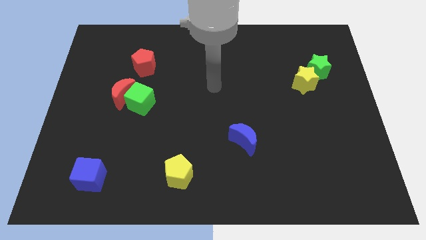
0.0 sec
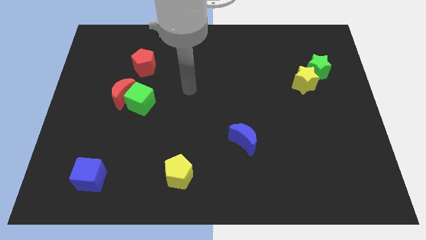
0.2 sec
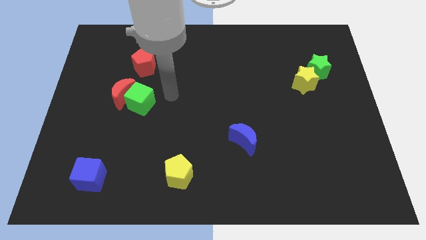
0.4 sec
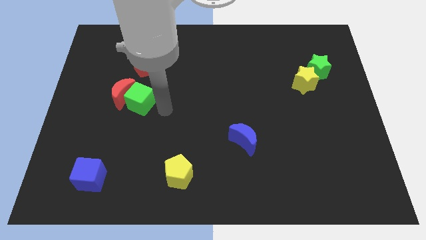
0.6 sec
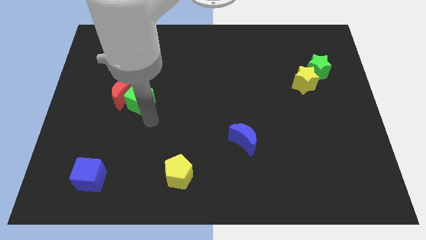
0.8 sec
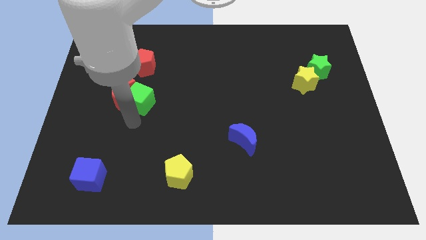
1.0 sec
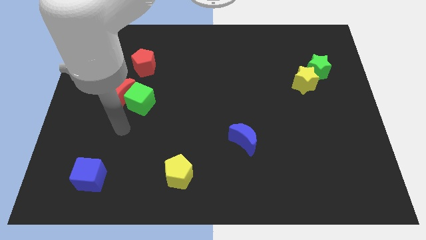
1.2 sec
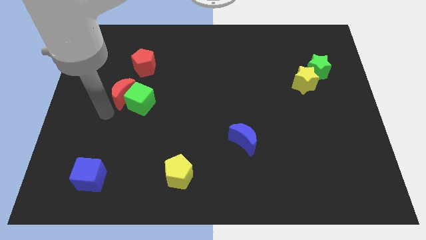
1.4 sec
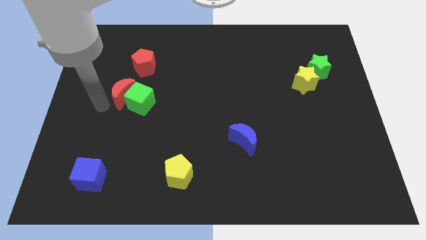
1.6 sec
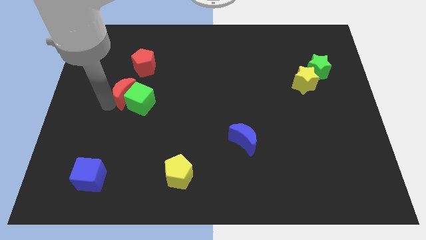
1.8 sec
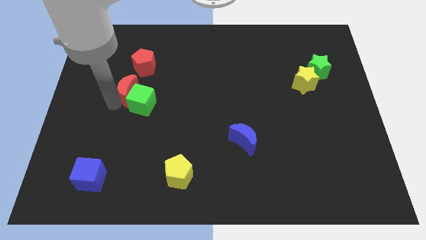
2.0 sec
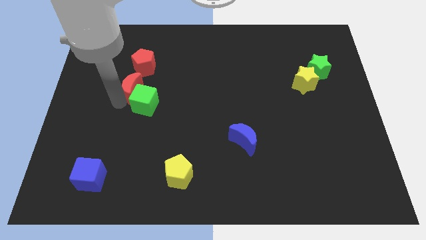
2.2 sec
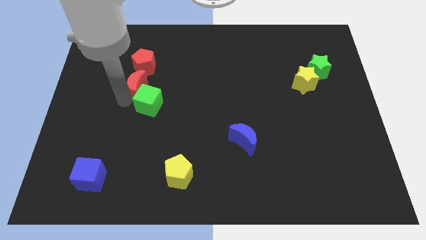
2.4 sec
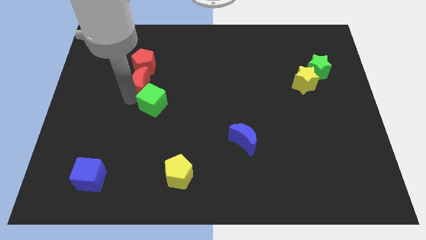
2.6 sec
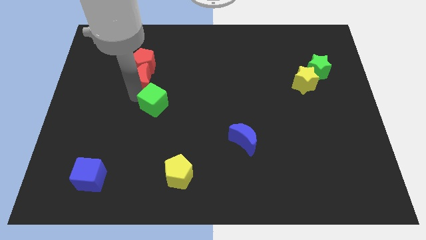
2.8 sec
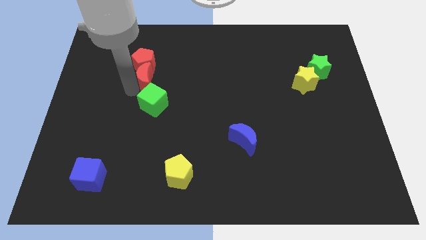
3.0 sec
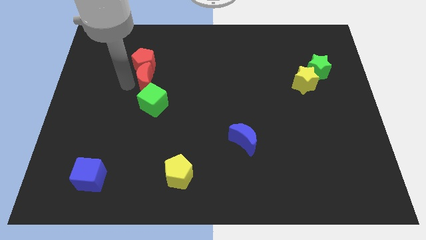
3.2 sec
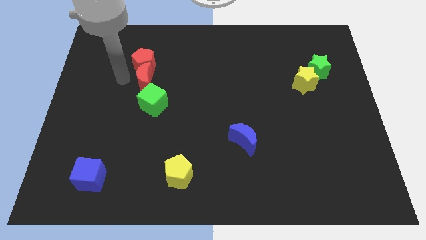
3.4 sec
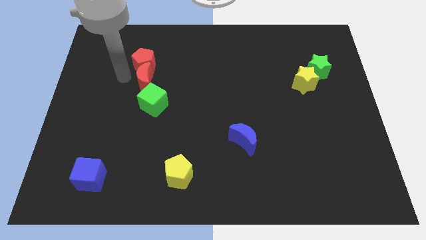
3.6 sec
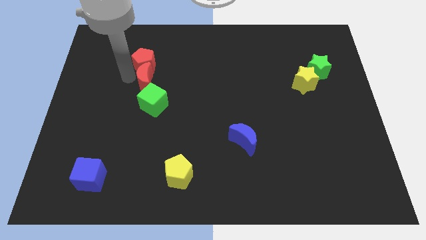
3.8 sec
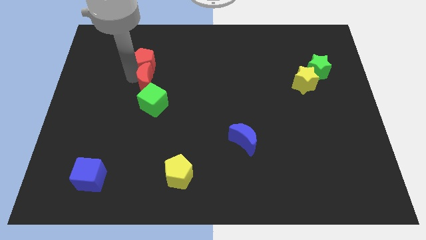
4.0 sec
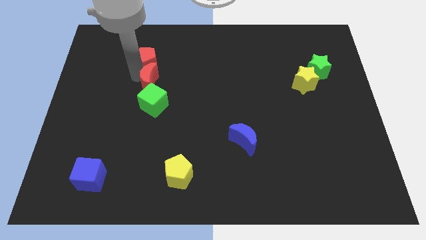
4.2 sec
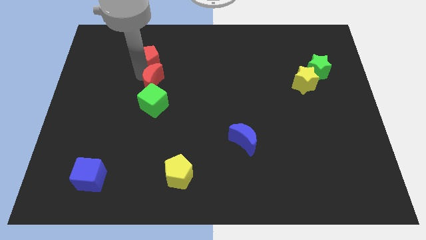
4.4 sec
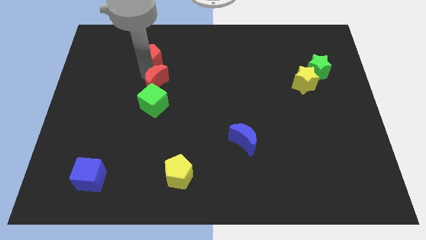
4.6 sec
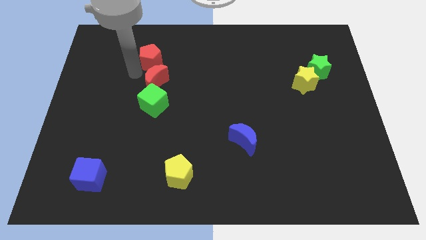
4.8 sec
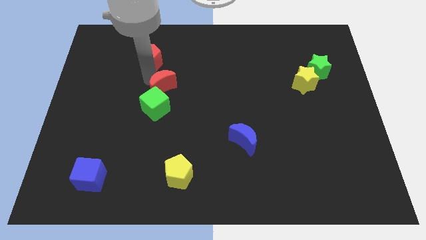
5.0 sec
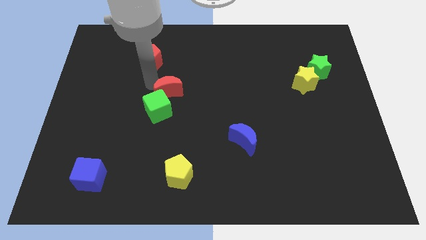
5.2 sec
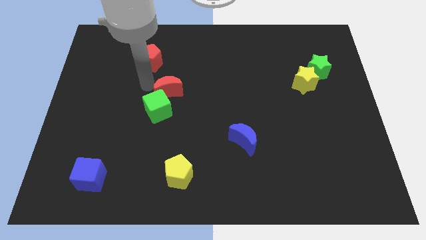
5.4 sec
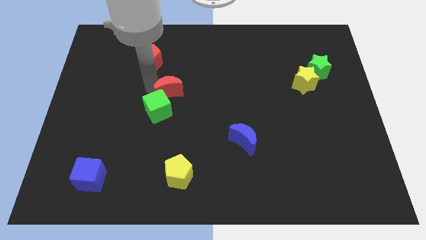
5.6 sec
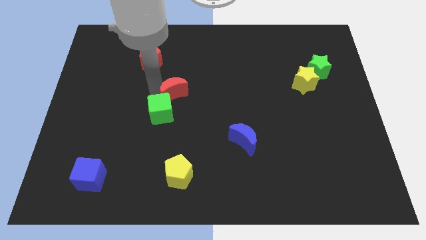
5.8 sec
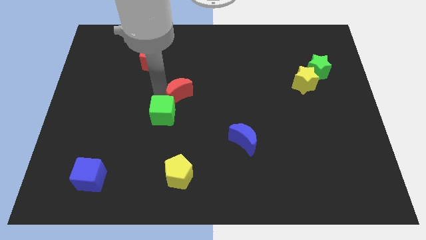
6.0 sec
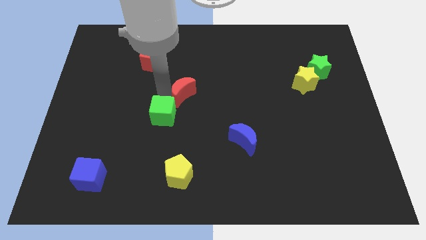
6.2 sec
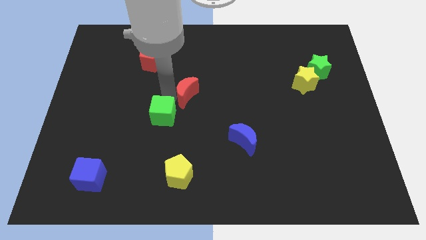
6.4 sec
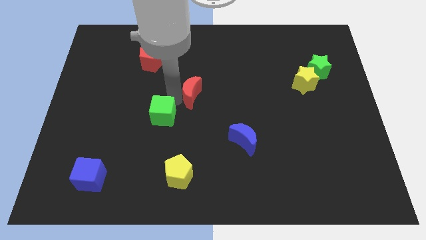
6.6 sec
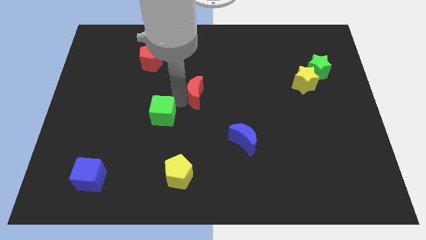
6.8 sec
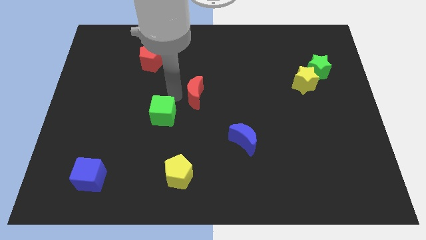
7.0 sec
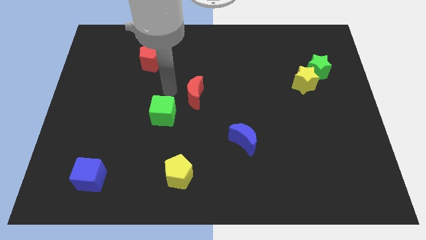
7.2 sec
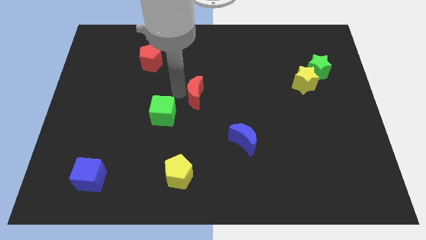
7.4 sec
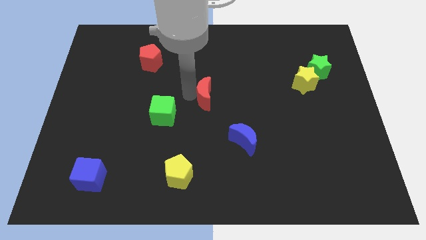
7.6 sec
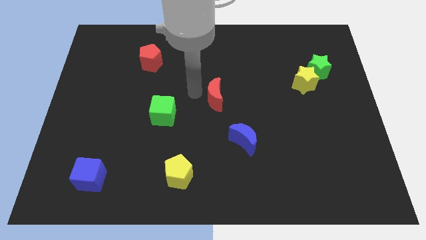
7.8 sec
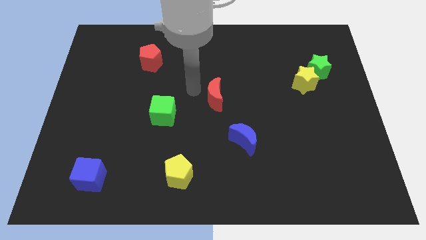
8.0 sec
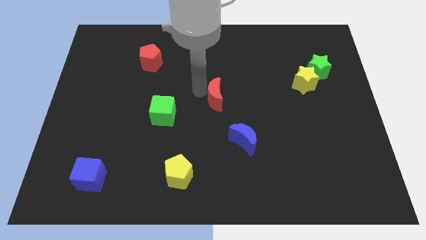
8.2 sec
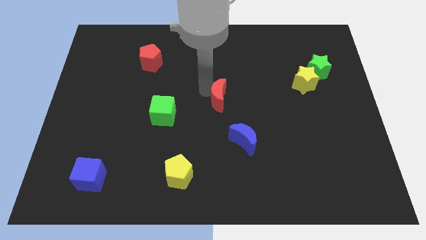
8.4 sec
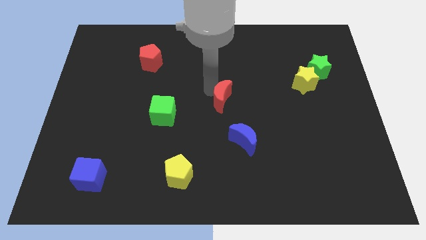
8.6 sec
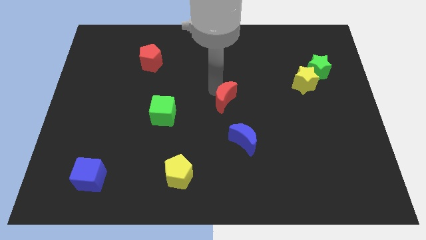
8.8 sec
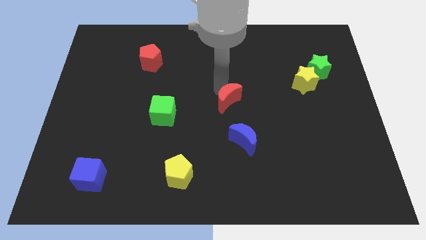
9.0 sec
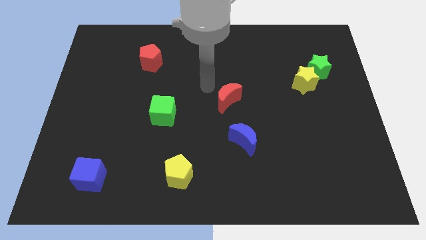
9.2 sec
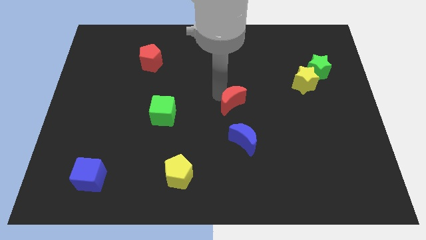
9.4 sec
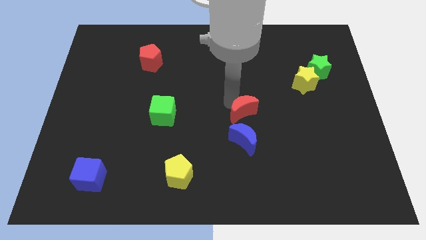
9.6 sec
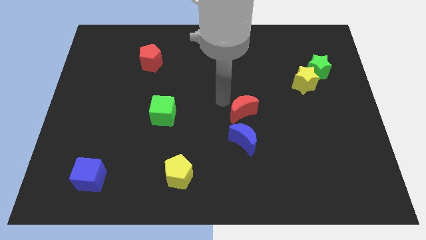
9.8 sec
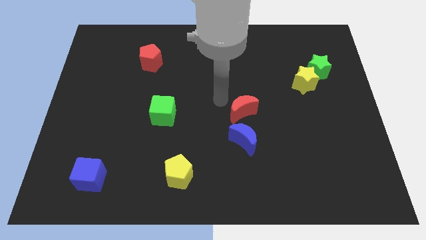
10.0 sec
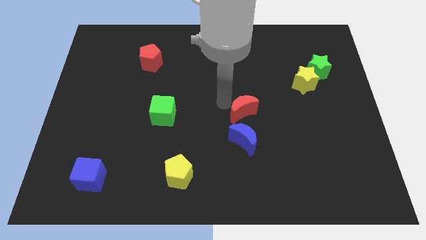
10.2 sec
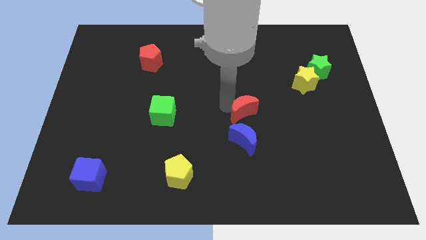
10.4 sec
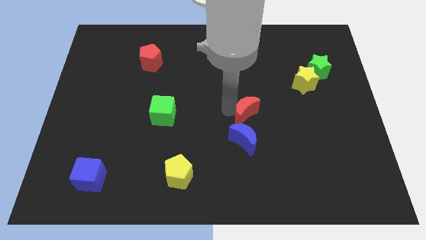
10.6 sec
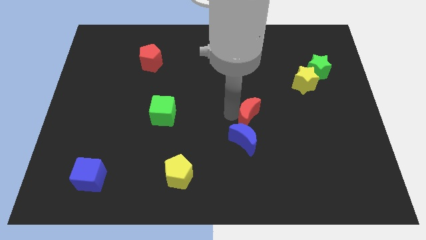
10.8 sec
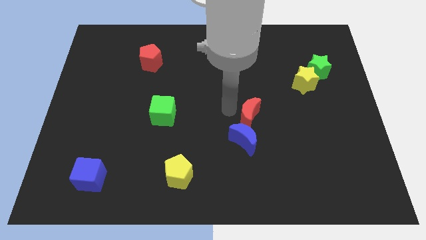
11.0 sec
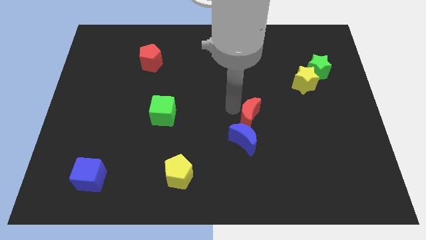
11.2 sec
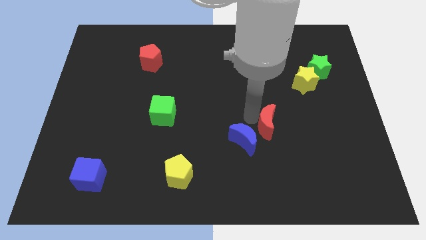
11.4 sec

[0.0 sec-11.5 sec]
slide the red moon to the right of the blue moon

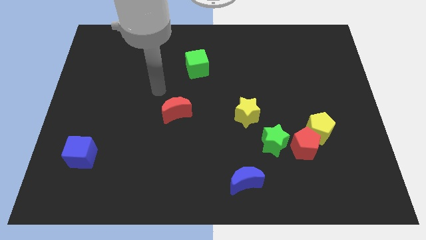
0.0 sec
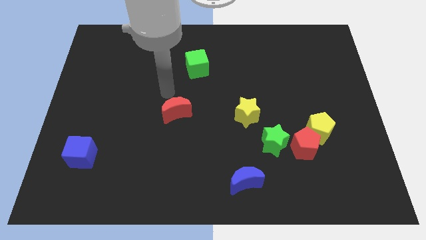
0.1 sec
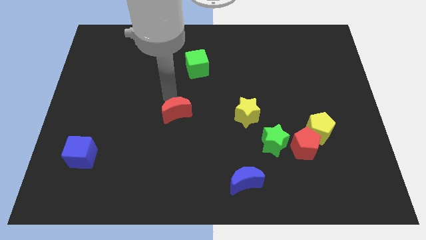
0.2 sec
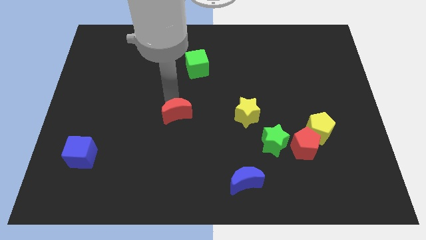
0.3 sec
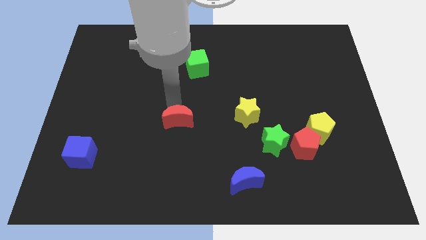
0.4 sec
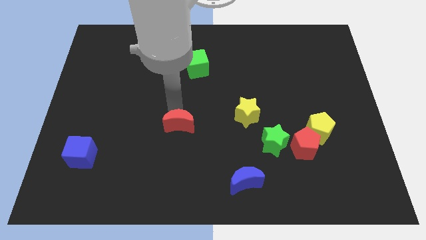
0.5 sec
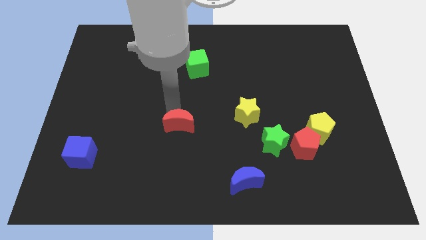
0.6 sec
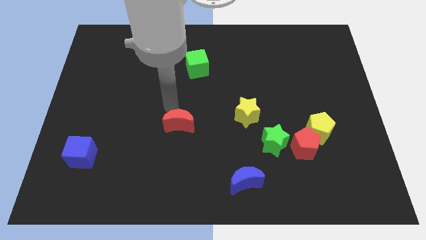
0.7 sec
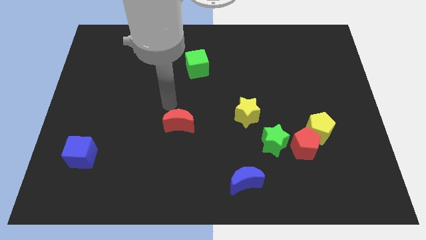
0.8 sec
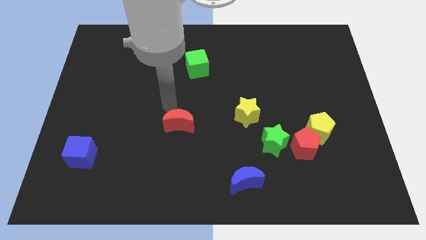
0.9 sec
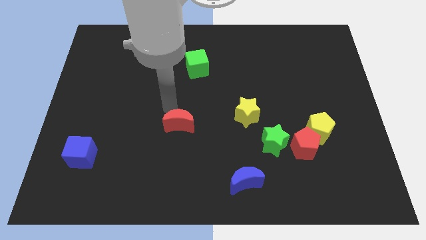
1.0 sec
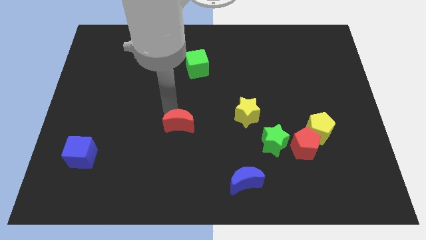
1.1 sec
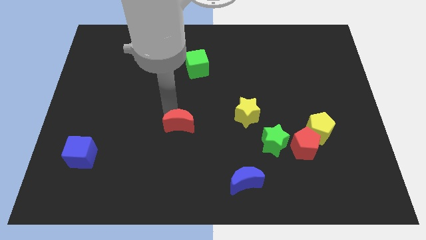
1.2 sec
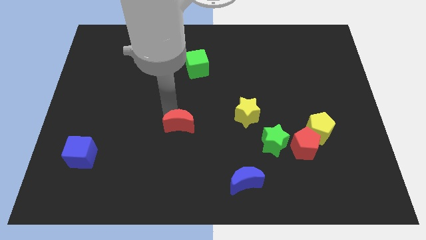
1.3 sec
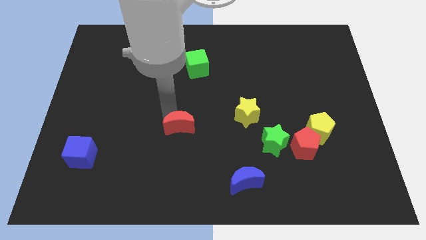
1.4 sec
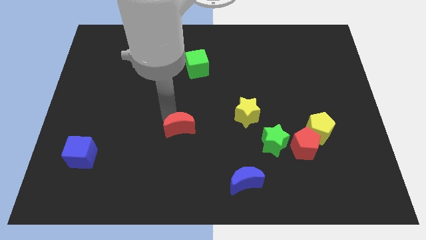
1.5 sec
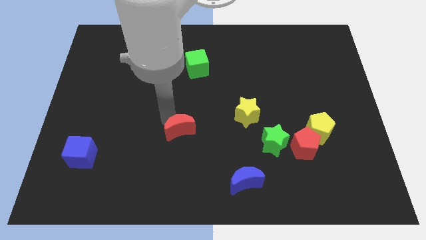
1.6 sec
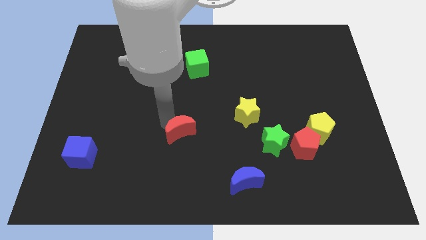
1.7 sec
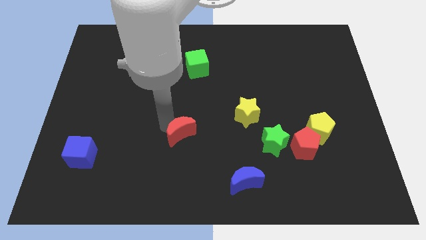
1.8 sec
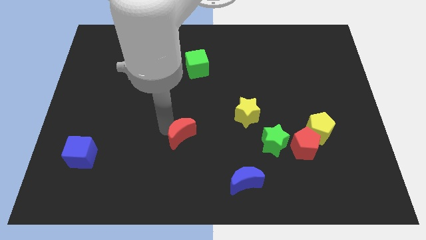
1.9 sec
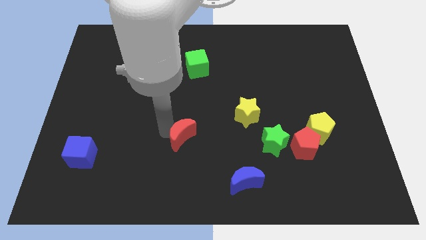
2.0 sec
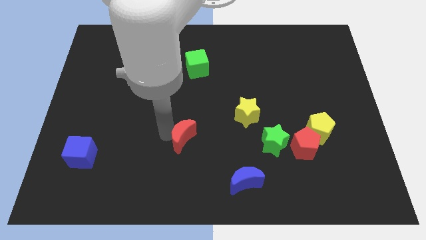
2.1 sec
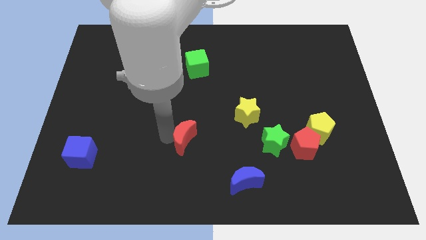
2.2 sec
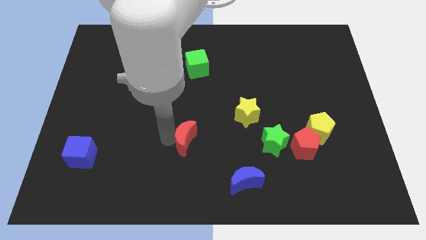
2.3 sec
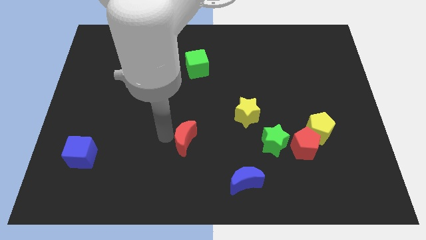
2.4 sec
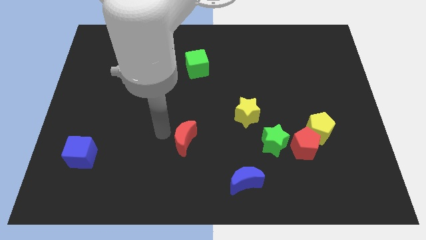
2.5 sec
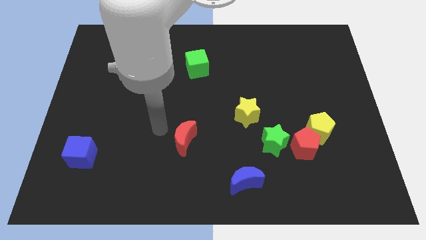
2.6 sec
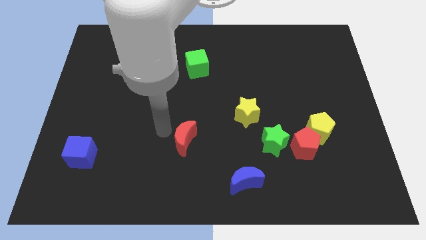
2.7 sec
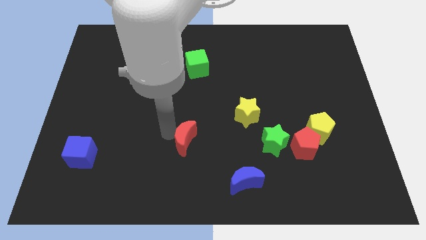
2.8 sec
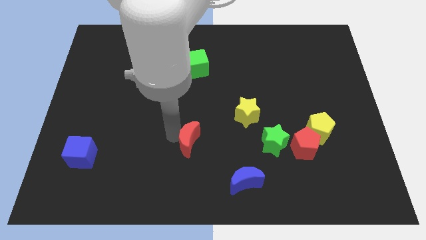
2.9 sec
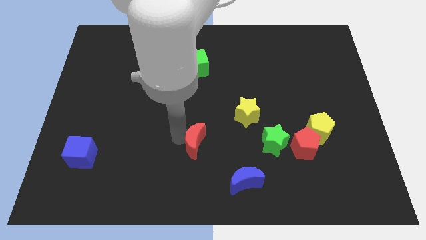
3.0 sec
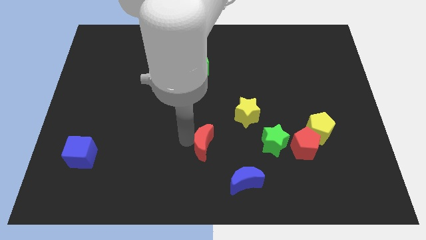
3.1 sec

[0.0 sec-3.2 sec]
slide the red moon diagonally up and to the left of the blue moon
